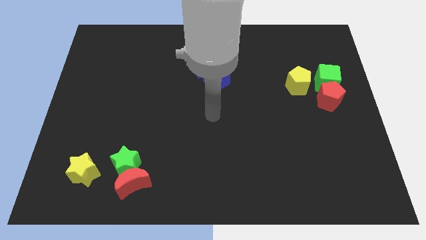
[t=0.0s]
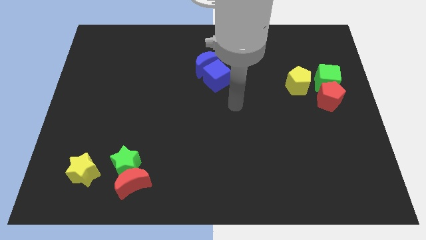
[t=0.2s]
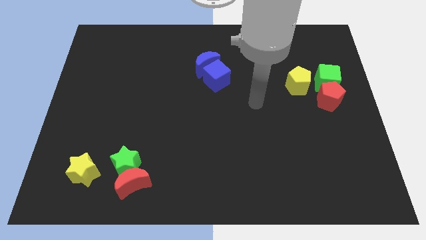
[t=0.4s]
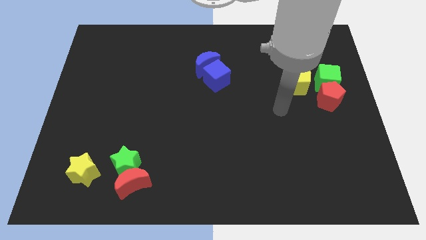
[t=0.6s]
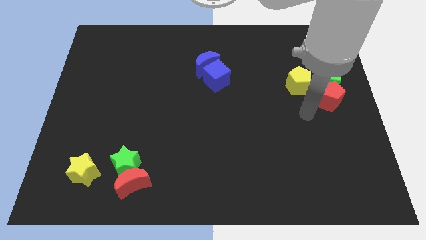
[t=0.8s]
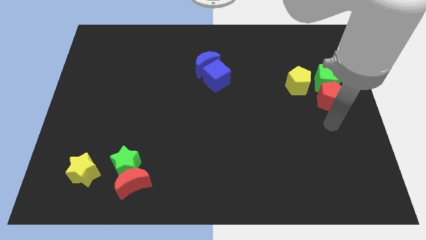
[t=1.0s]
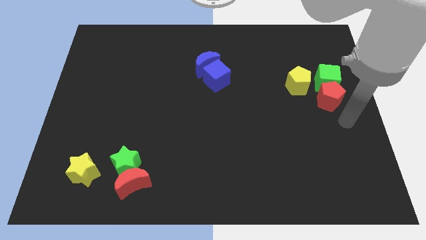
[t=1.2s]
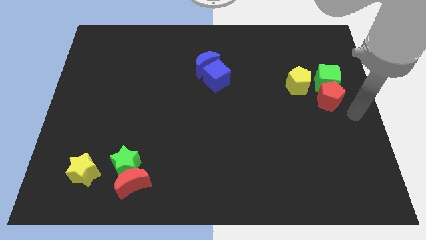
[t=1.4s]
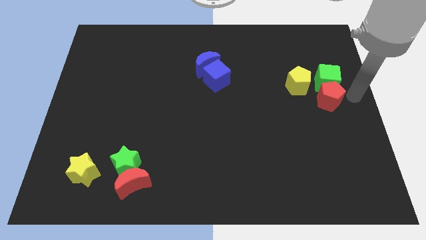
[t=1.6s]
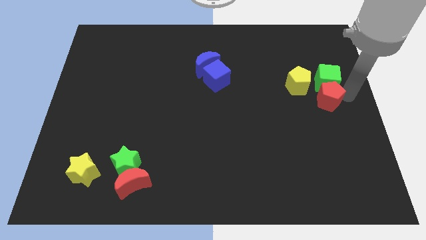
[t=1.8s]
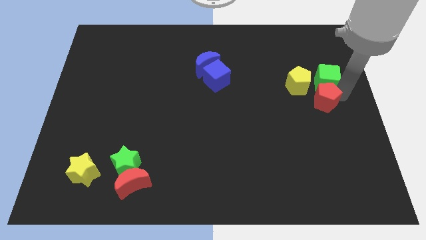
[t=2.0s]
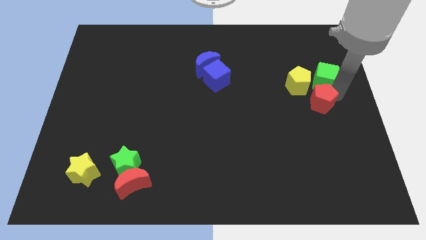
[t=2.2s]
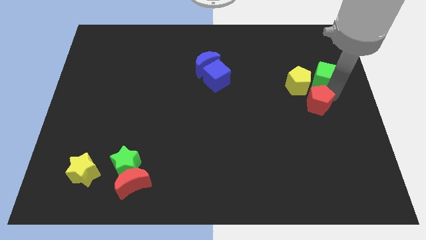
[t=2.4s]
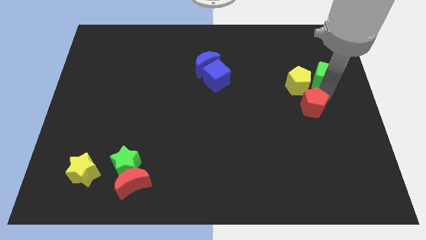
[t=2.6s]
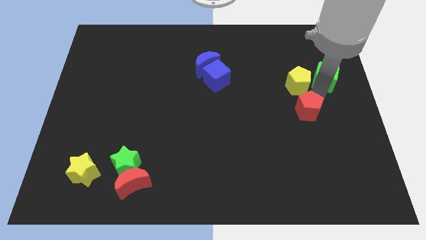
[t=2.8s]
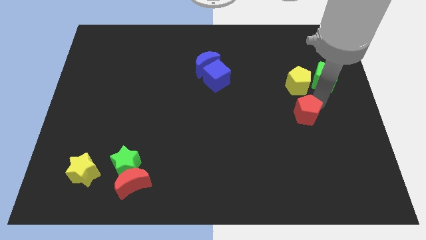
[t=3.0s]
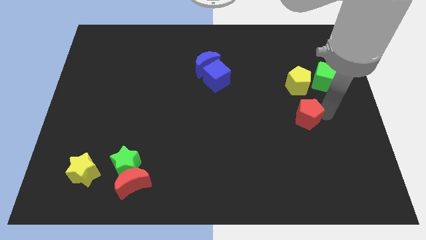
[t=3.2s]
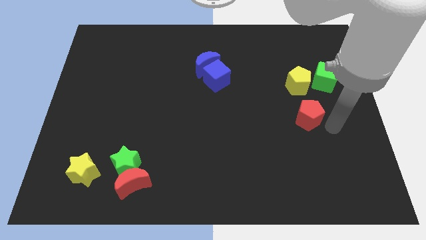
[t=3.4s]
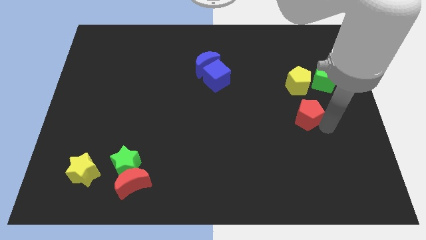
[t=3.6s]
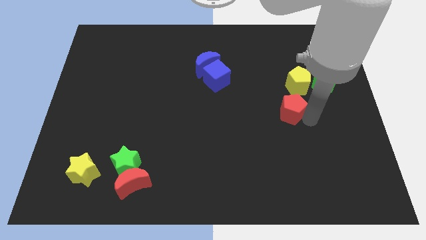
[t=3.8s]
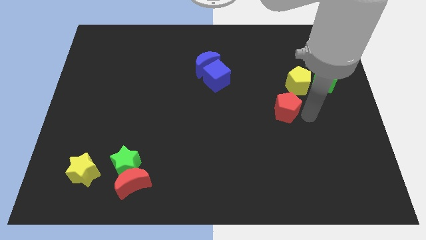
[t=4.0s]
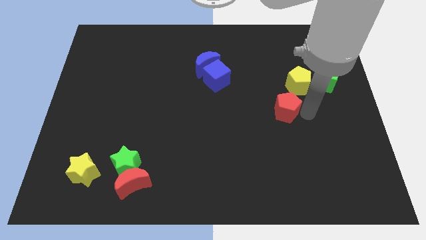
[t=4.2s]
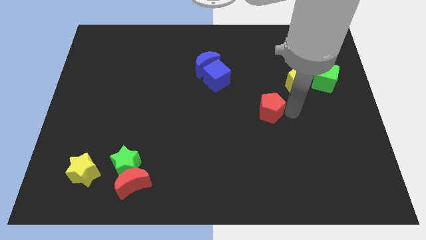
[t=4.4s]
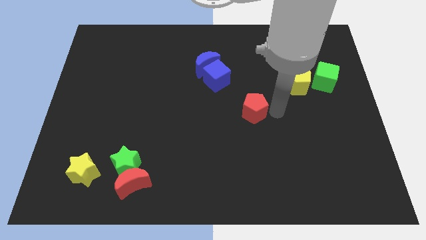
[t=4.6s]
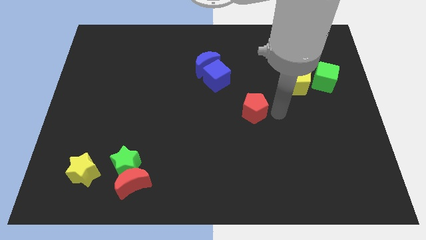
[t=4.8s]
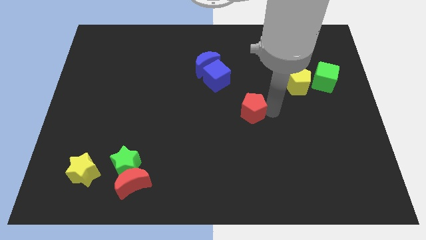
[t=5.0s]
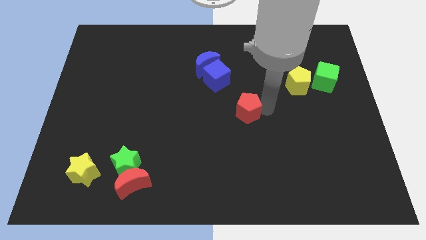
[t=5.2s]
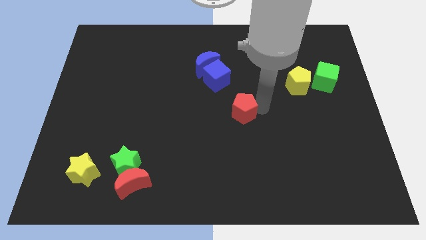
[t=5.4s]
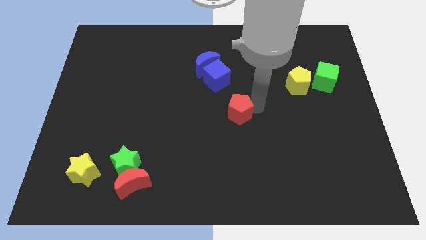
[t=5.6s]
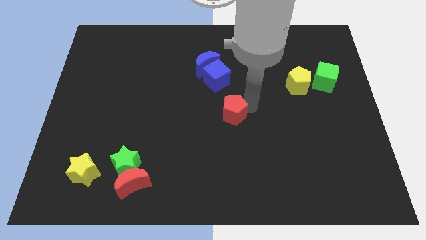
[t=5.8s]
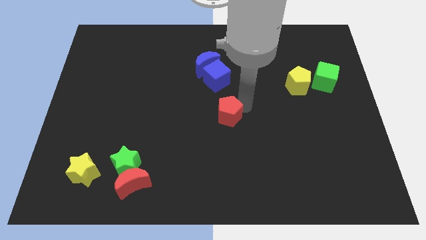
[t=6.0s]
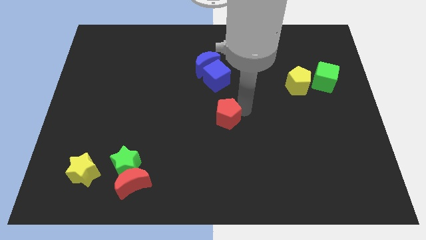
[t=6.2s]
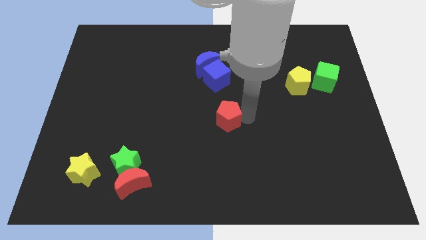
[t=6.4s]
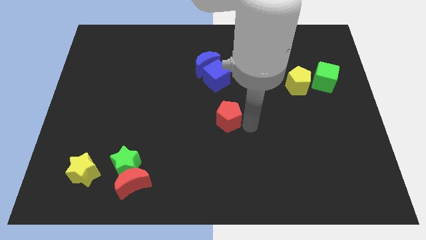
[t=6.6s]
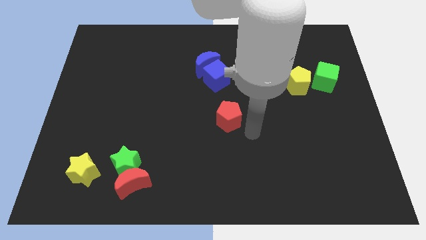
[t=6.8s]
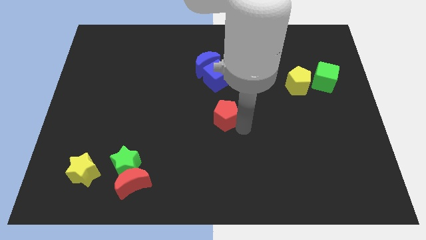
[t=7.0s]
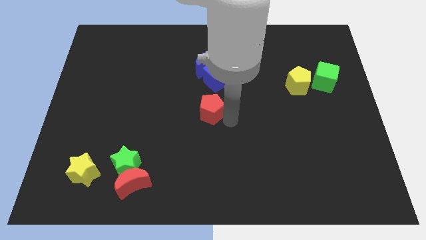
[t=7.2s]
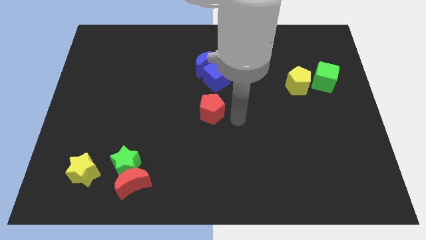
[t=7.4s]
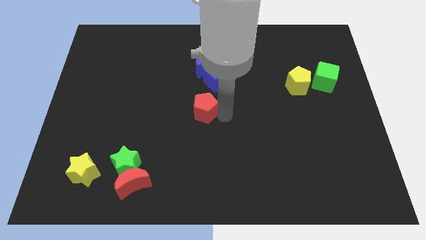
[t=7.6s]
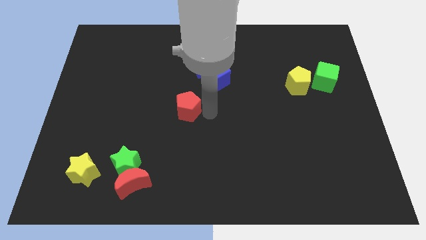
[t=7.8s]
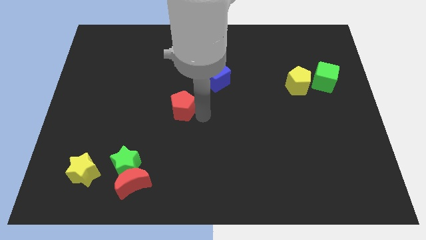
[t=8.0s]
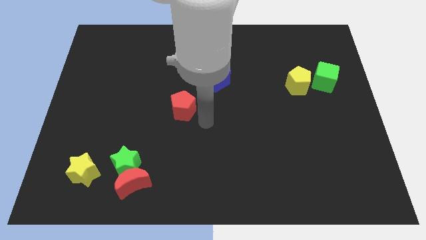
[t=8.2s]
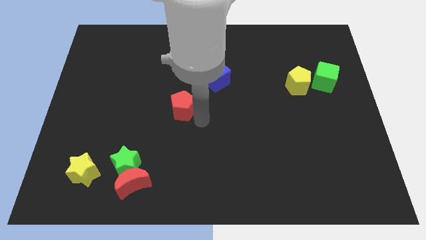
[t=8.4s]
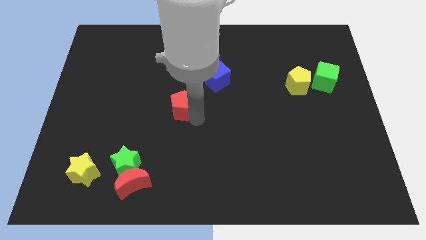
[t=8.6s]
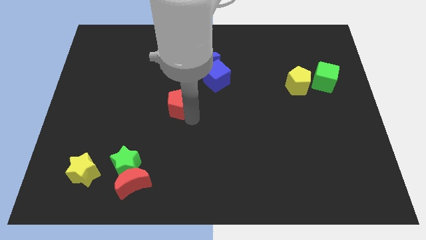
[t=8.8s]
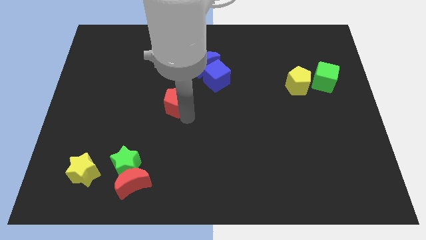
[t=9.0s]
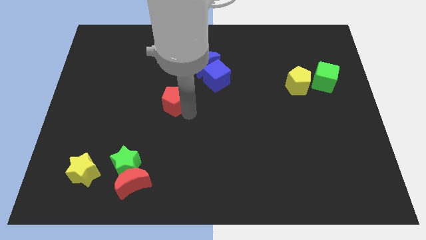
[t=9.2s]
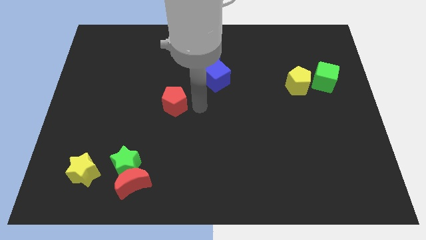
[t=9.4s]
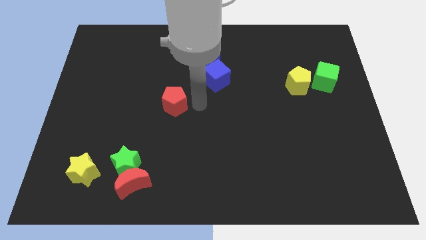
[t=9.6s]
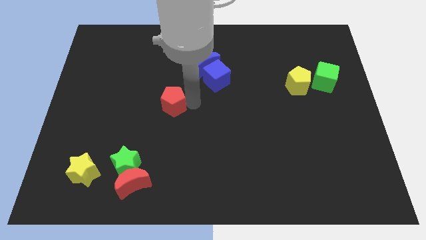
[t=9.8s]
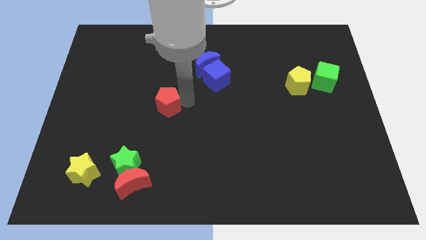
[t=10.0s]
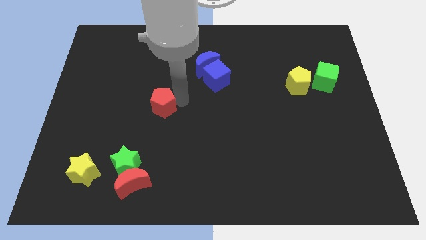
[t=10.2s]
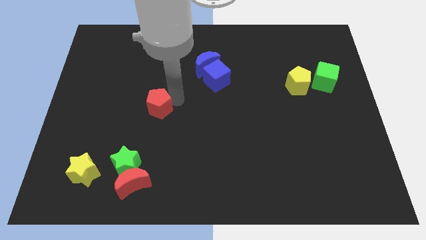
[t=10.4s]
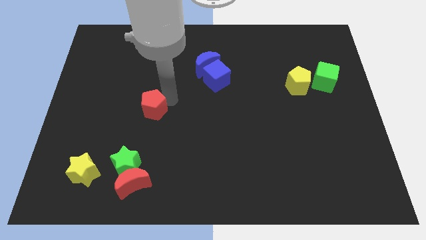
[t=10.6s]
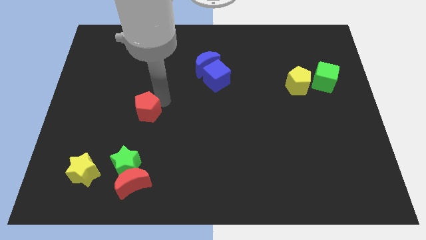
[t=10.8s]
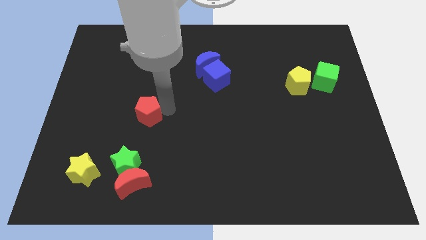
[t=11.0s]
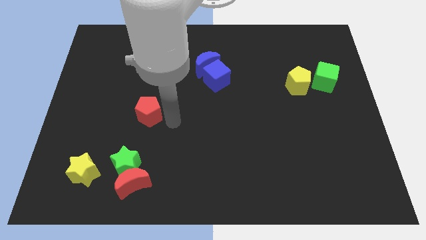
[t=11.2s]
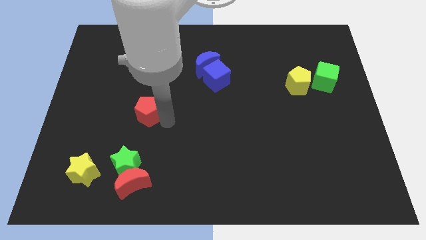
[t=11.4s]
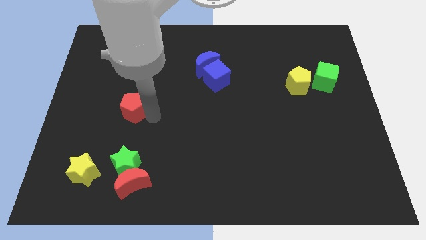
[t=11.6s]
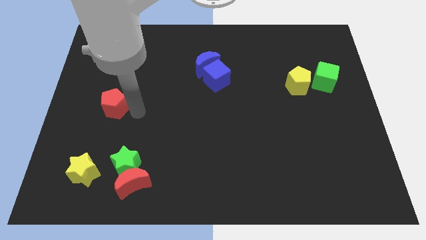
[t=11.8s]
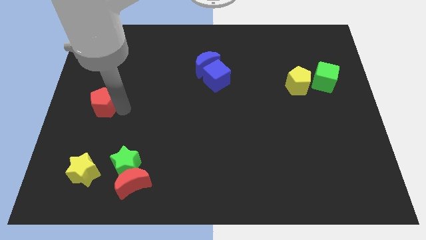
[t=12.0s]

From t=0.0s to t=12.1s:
put the red pentagon to the left side

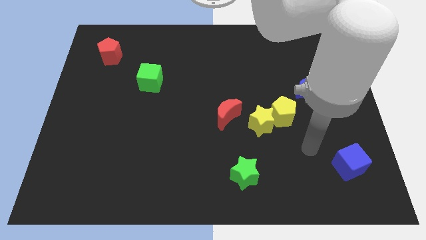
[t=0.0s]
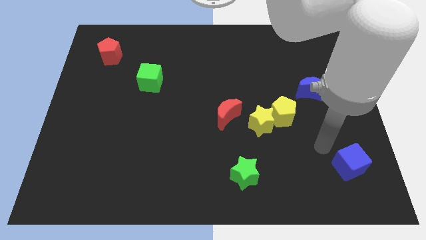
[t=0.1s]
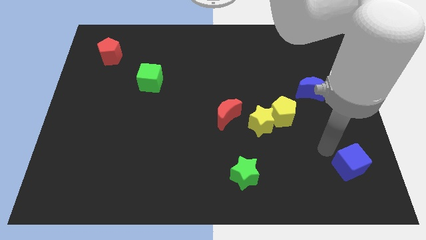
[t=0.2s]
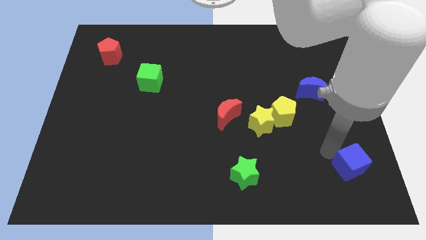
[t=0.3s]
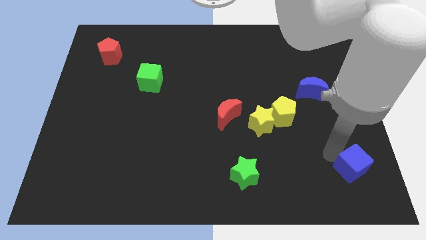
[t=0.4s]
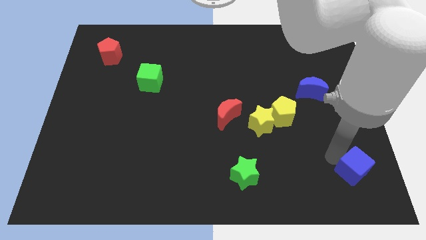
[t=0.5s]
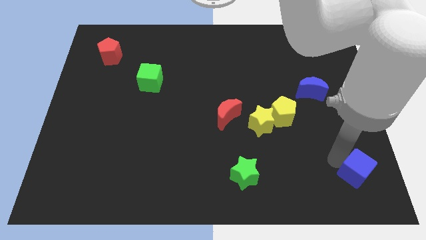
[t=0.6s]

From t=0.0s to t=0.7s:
put the blue cube to the lower right corner
